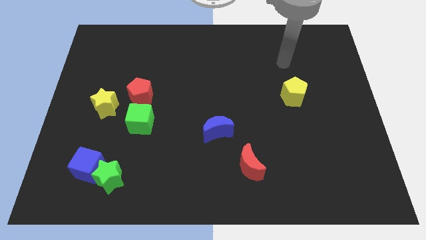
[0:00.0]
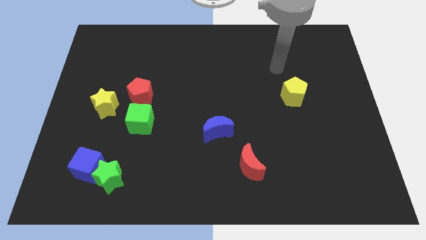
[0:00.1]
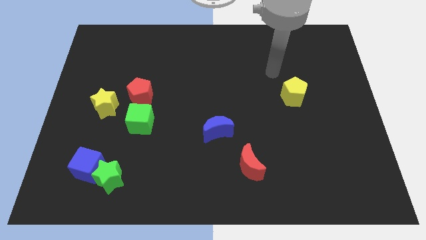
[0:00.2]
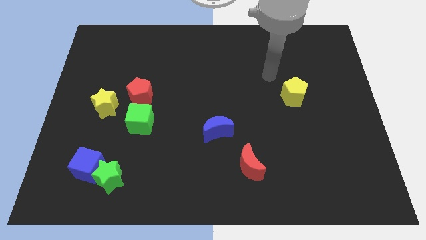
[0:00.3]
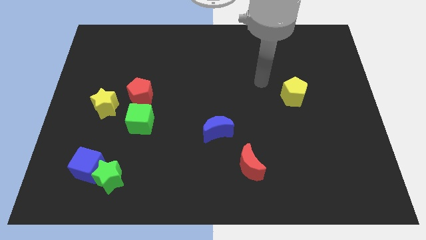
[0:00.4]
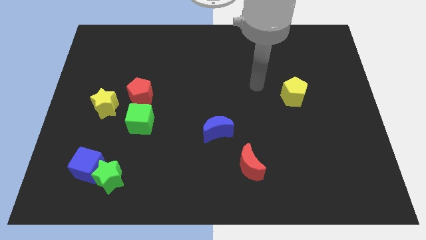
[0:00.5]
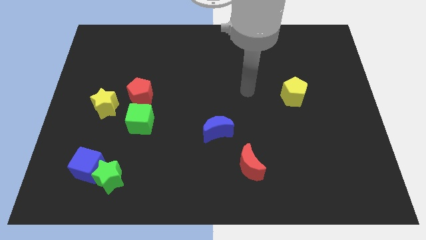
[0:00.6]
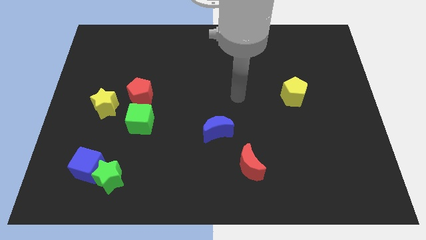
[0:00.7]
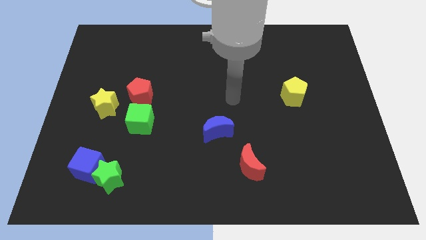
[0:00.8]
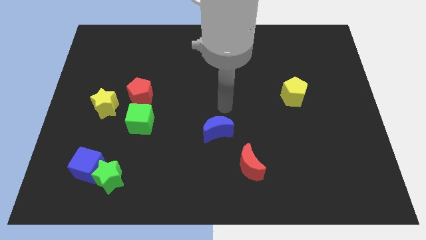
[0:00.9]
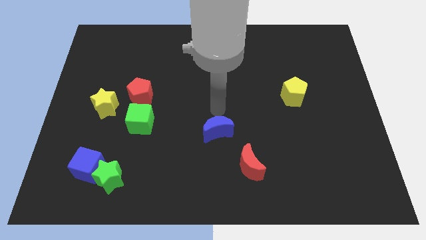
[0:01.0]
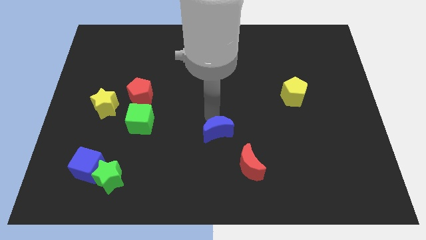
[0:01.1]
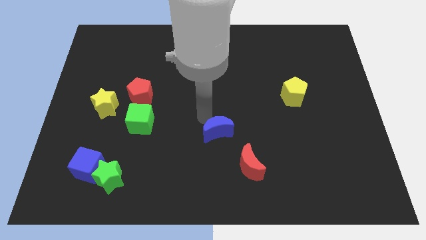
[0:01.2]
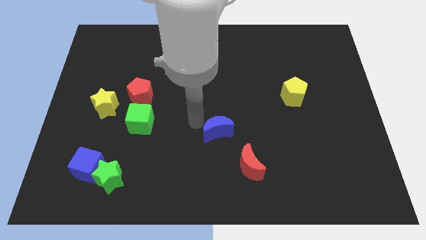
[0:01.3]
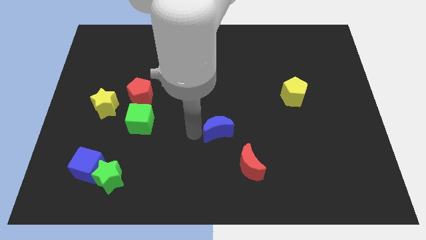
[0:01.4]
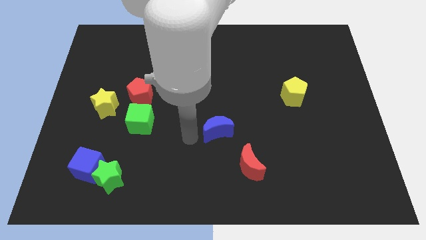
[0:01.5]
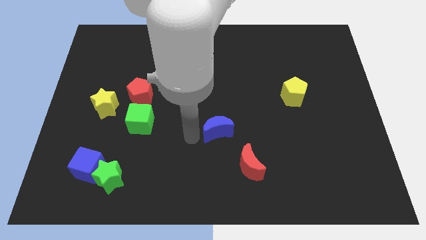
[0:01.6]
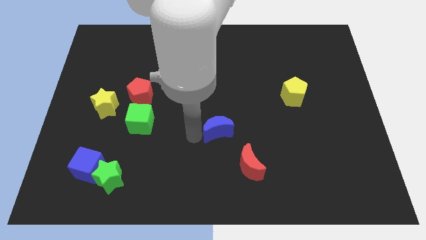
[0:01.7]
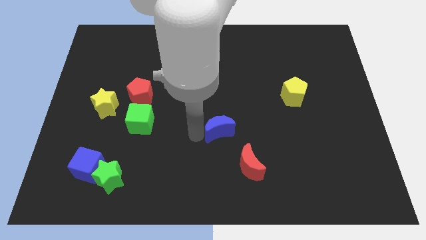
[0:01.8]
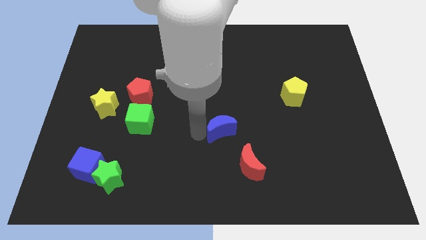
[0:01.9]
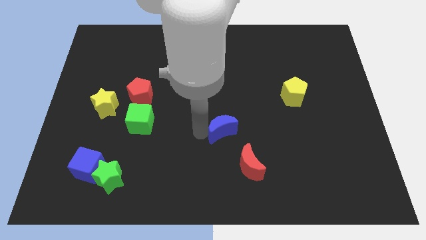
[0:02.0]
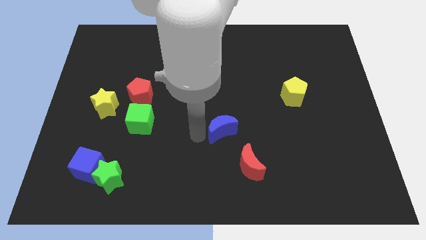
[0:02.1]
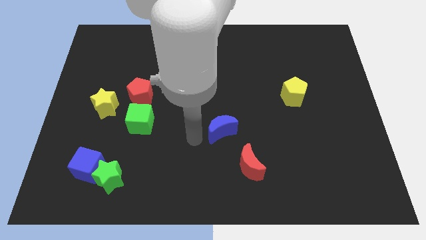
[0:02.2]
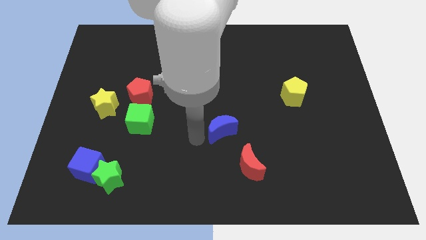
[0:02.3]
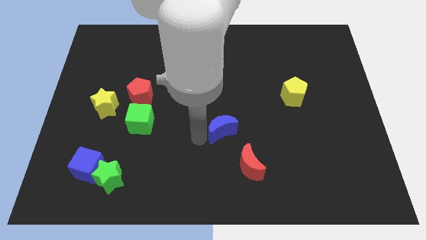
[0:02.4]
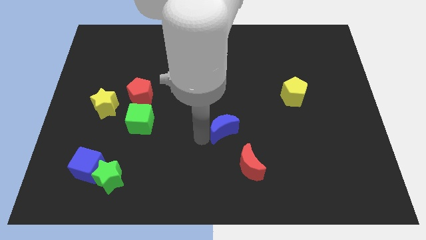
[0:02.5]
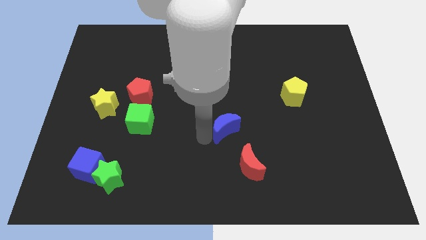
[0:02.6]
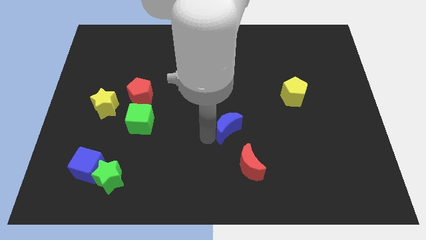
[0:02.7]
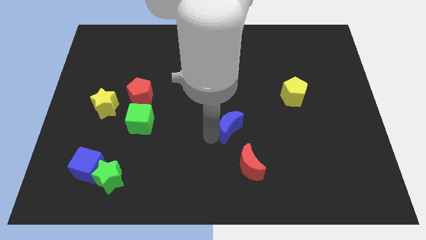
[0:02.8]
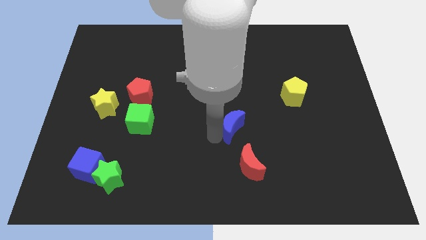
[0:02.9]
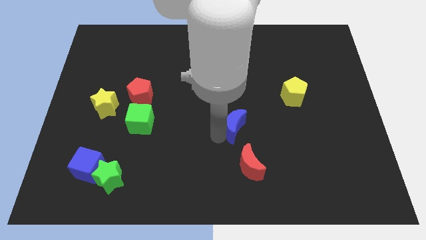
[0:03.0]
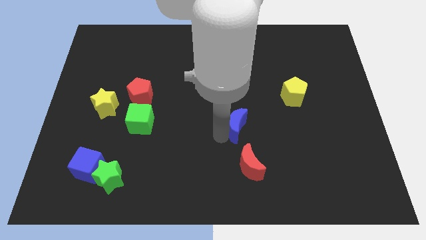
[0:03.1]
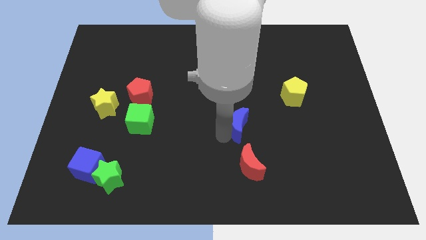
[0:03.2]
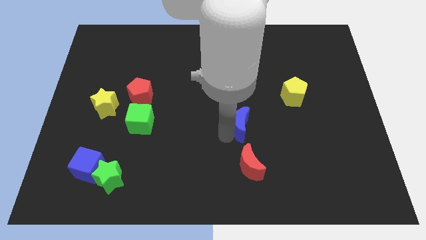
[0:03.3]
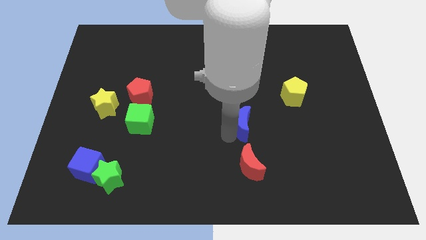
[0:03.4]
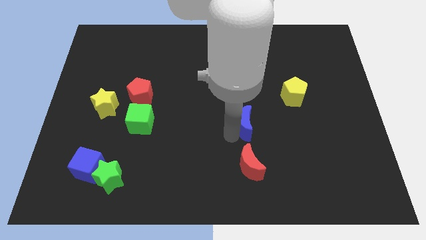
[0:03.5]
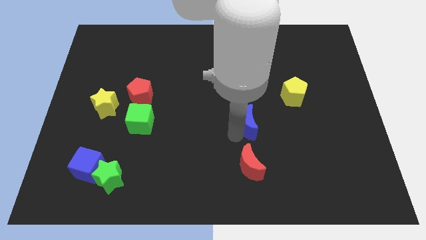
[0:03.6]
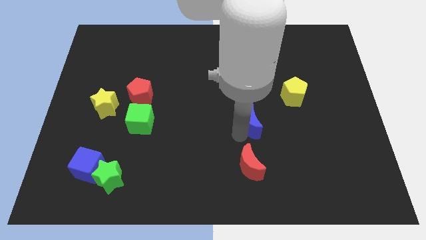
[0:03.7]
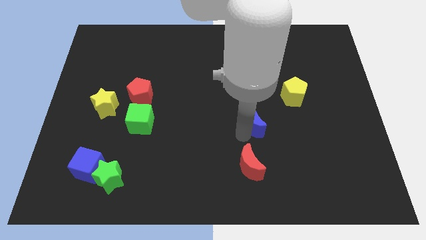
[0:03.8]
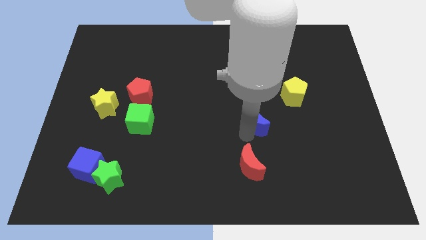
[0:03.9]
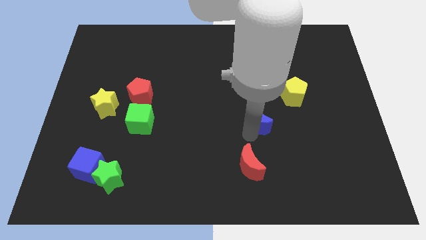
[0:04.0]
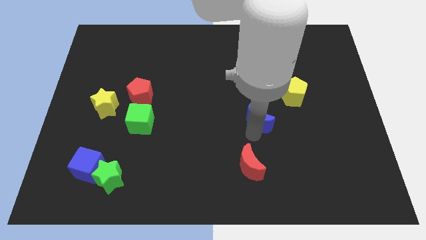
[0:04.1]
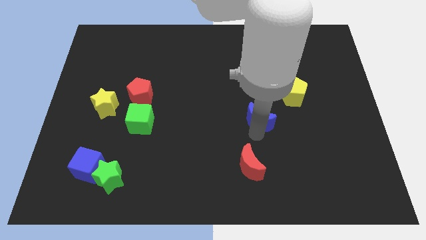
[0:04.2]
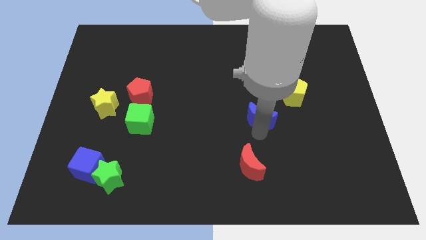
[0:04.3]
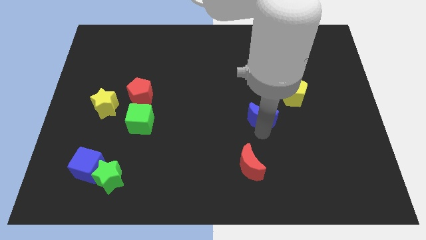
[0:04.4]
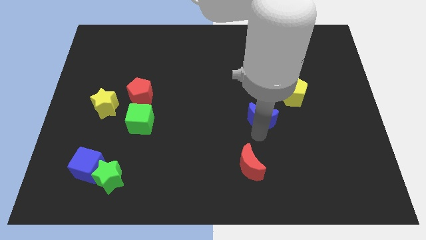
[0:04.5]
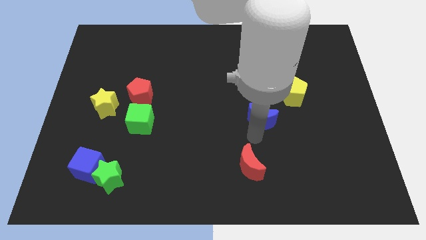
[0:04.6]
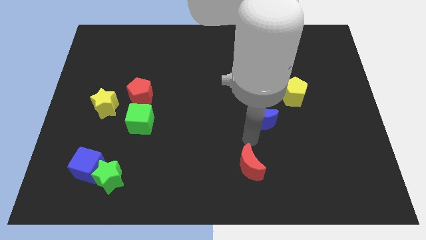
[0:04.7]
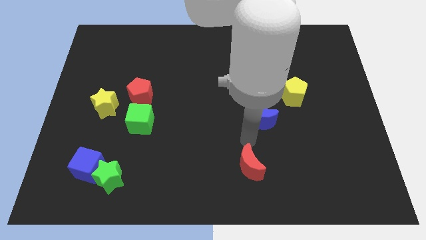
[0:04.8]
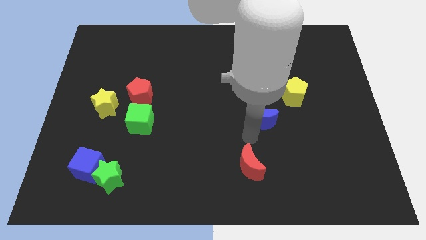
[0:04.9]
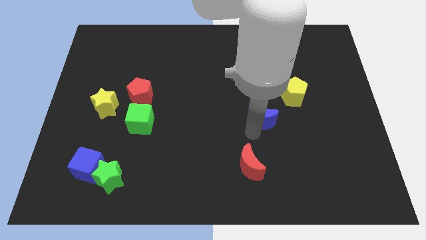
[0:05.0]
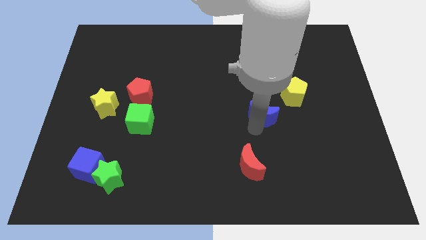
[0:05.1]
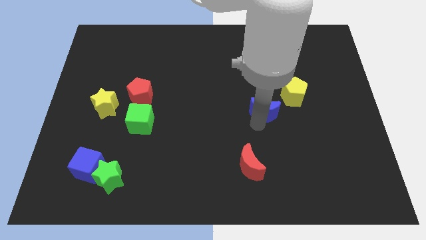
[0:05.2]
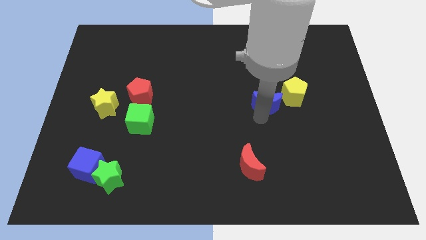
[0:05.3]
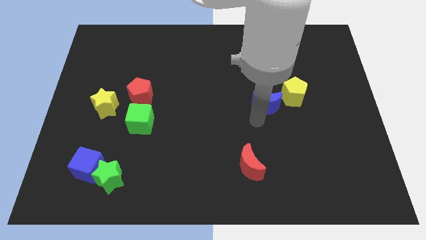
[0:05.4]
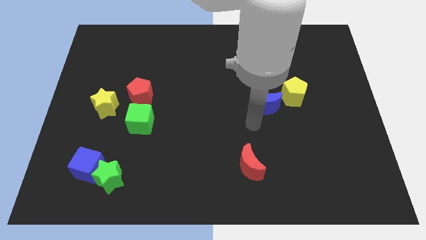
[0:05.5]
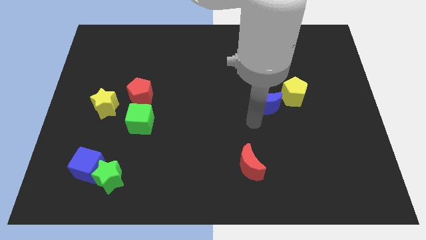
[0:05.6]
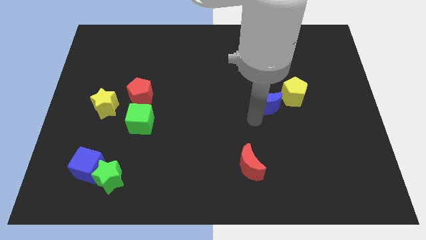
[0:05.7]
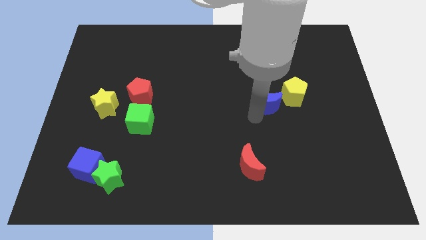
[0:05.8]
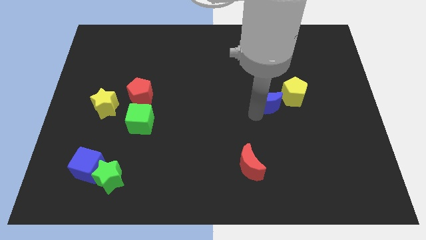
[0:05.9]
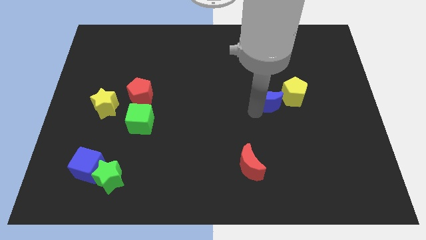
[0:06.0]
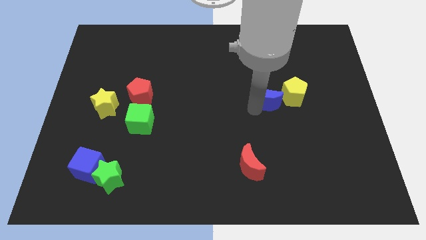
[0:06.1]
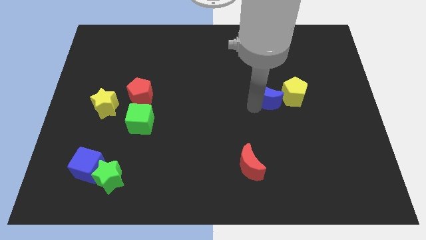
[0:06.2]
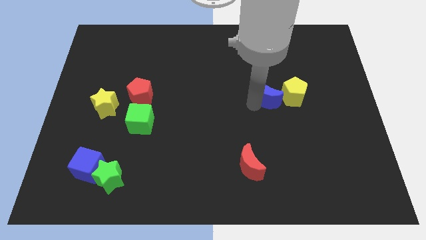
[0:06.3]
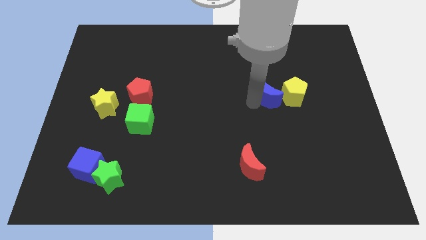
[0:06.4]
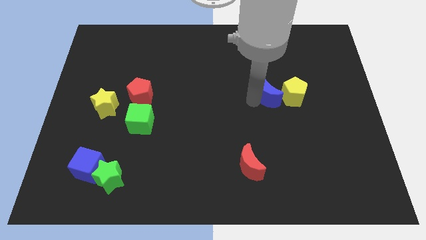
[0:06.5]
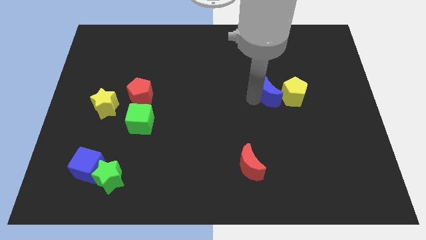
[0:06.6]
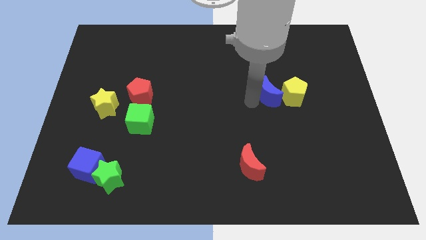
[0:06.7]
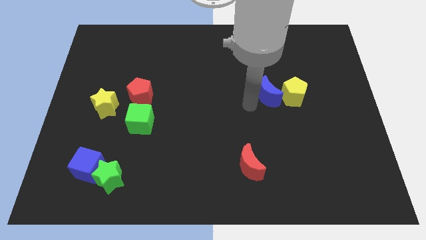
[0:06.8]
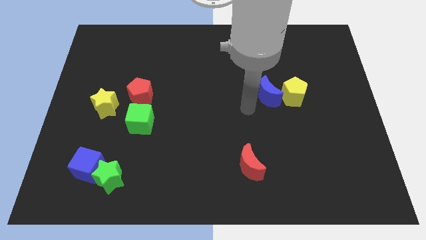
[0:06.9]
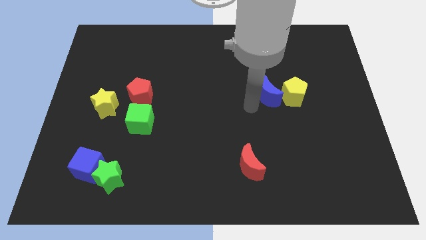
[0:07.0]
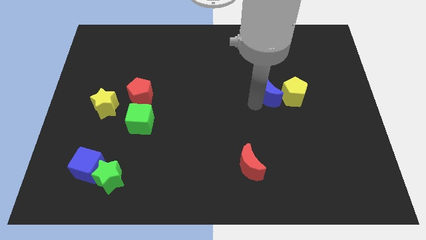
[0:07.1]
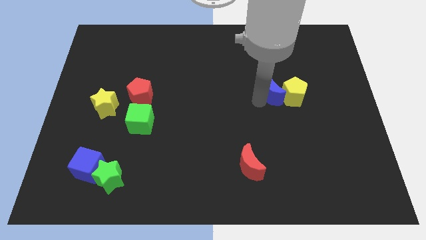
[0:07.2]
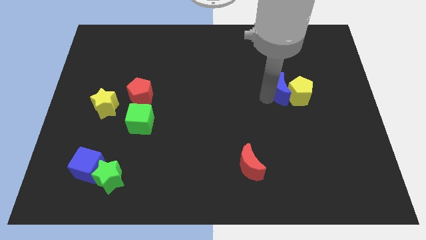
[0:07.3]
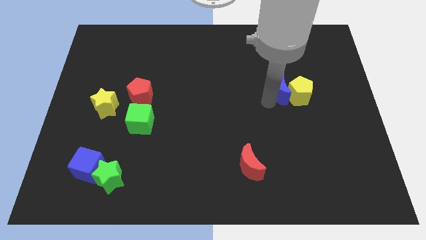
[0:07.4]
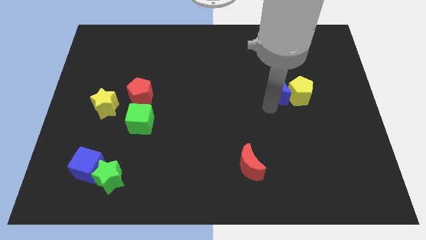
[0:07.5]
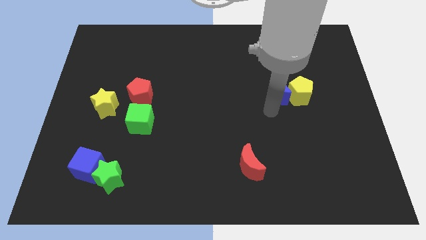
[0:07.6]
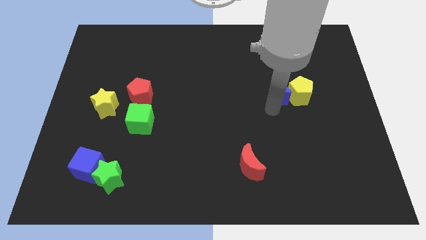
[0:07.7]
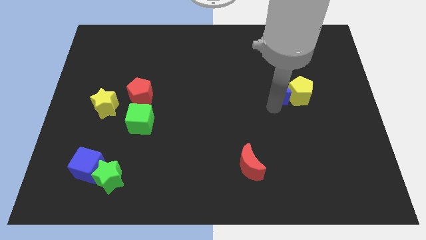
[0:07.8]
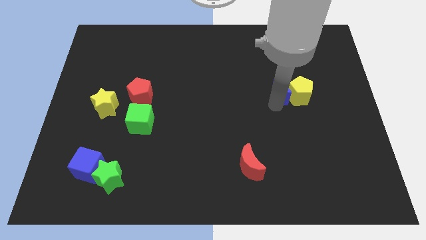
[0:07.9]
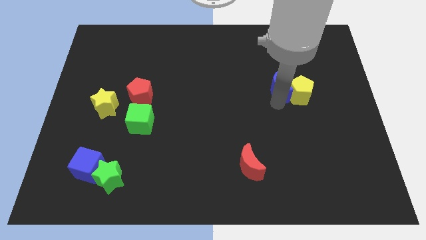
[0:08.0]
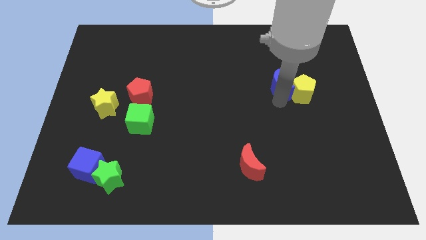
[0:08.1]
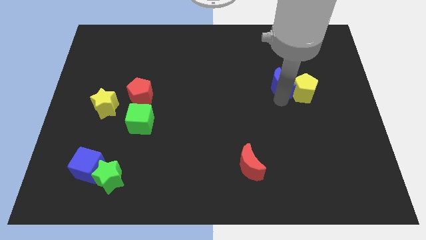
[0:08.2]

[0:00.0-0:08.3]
push the blue moon diagonally upwards and to the right
